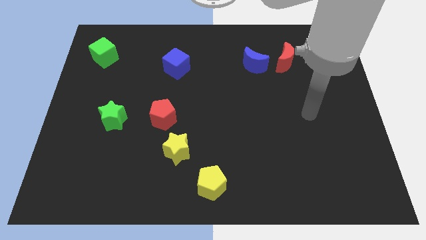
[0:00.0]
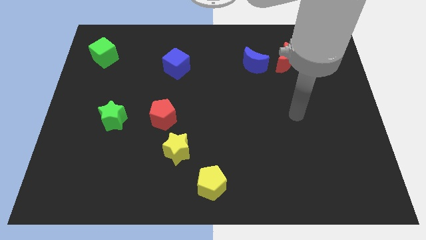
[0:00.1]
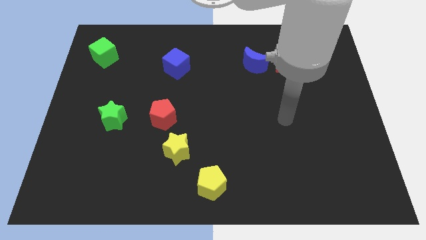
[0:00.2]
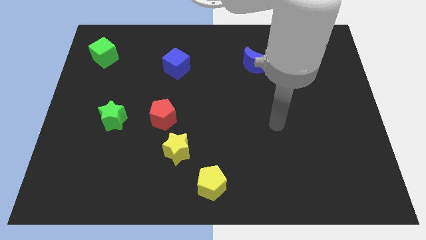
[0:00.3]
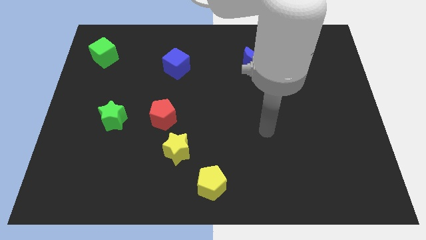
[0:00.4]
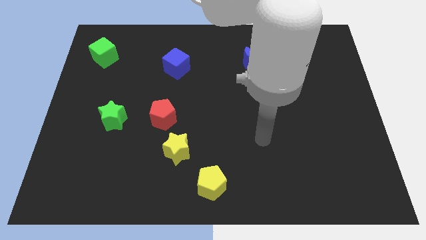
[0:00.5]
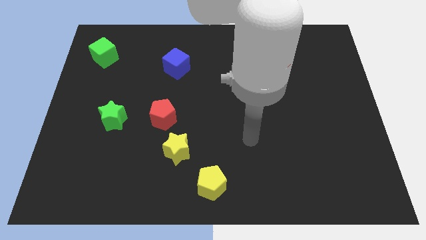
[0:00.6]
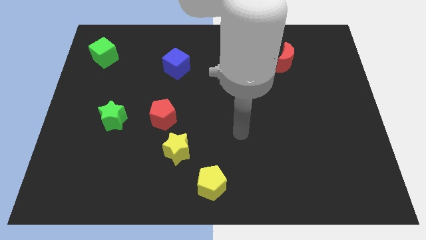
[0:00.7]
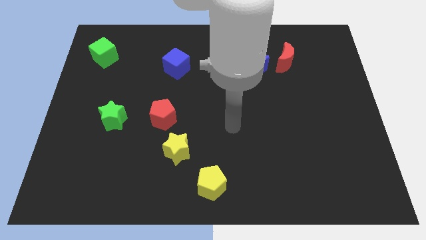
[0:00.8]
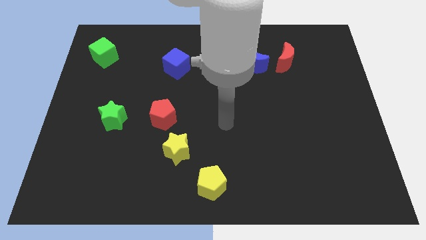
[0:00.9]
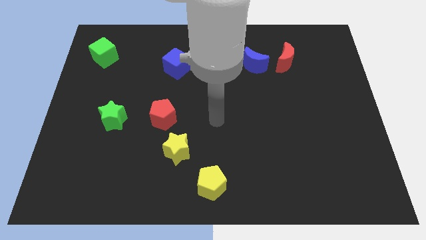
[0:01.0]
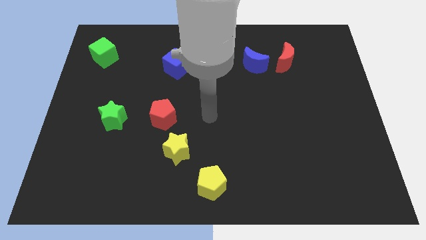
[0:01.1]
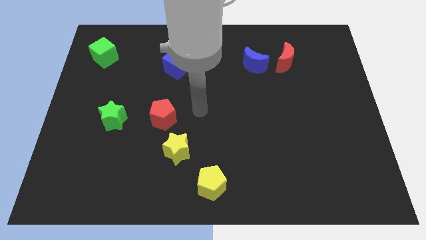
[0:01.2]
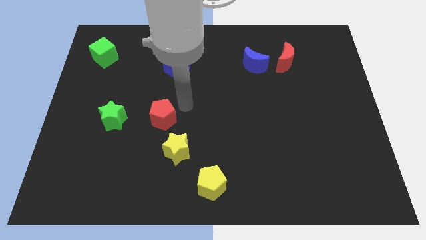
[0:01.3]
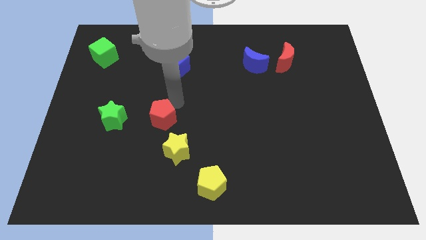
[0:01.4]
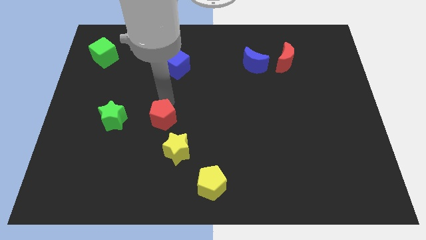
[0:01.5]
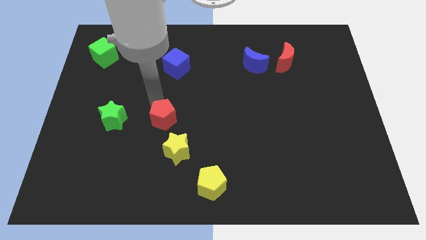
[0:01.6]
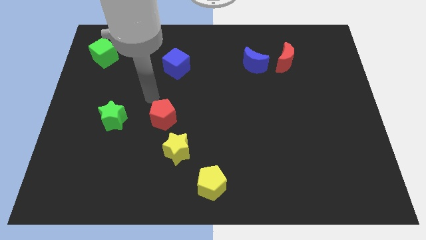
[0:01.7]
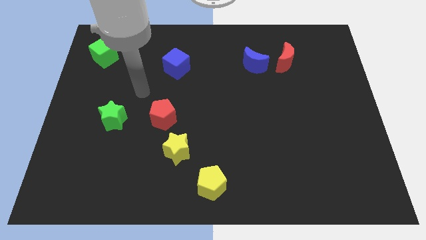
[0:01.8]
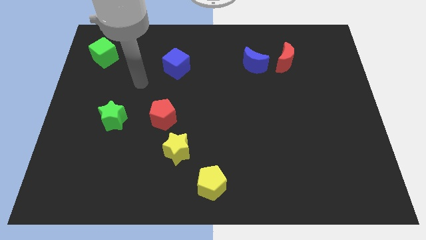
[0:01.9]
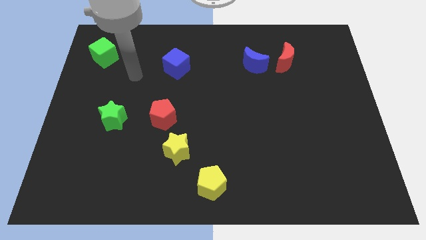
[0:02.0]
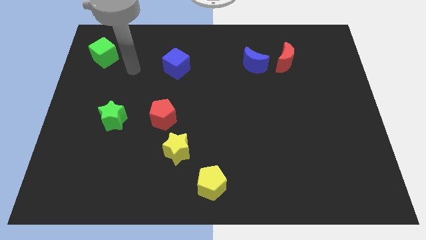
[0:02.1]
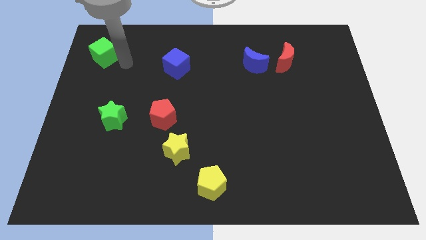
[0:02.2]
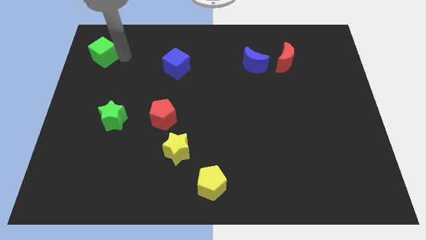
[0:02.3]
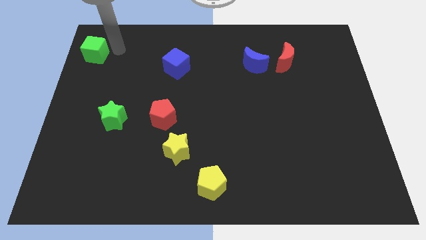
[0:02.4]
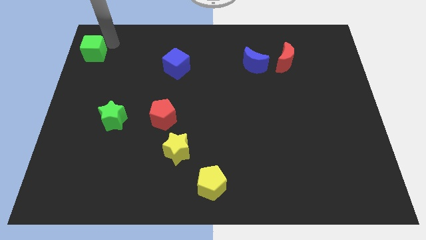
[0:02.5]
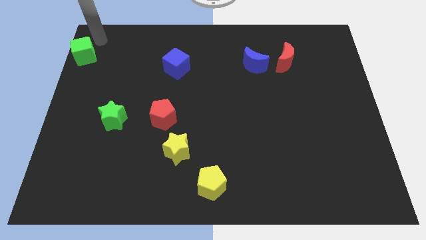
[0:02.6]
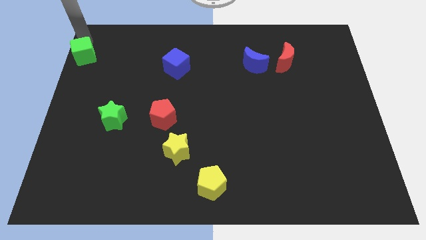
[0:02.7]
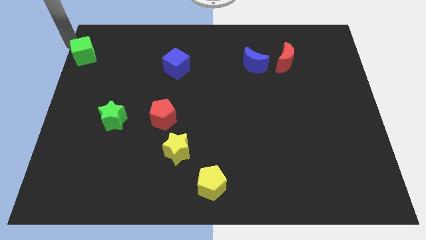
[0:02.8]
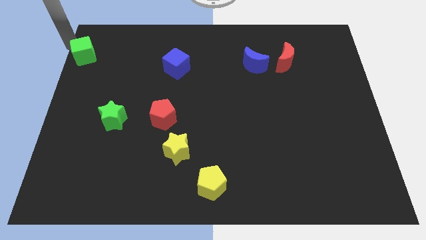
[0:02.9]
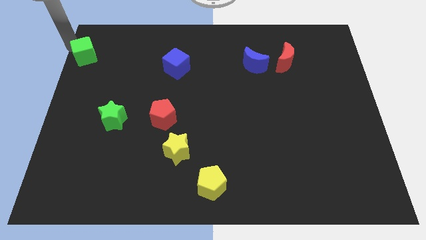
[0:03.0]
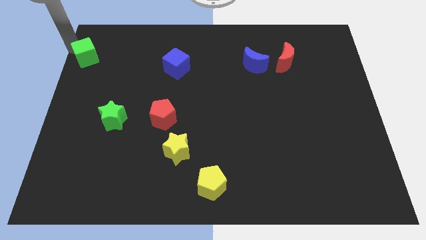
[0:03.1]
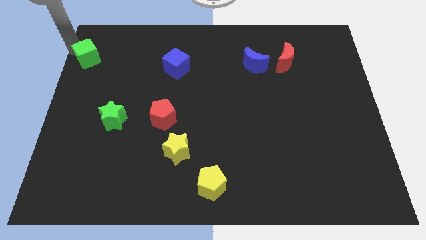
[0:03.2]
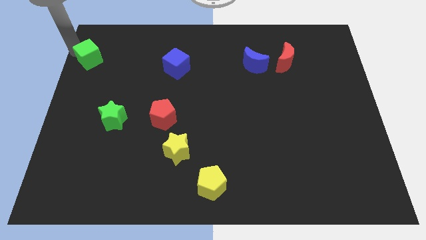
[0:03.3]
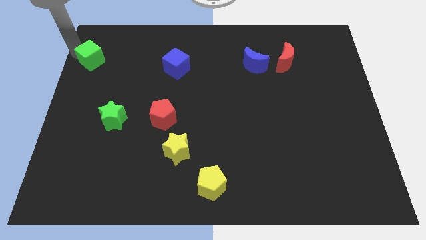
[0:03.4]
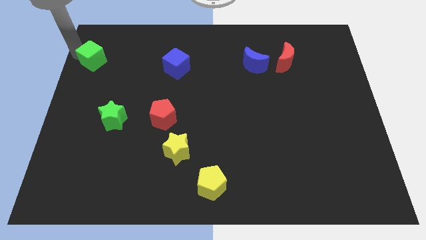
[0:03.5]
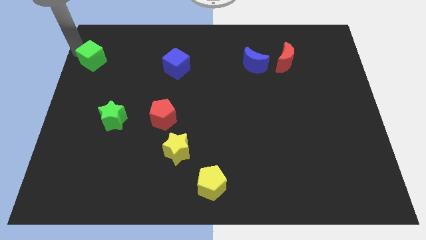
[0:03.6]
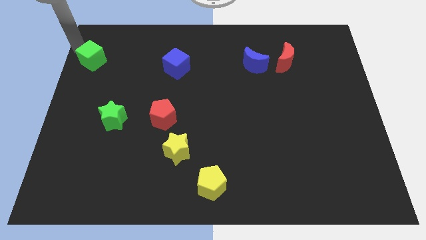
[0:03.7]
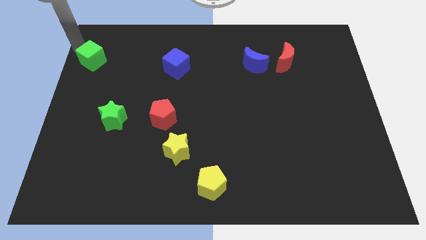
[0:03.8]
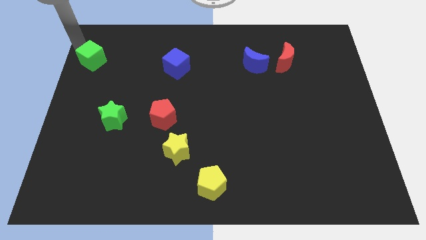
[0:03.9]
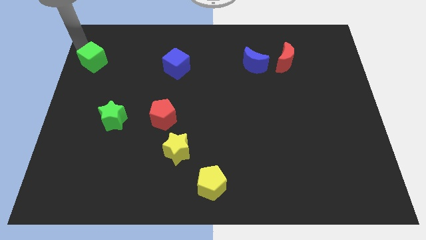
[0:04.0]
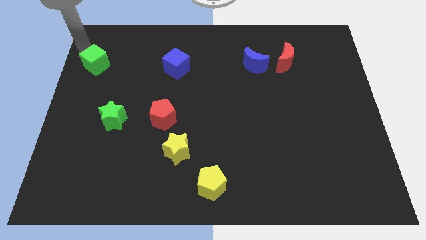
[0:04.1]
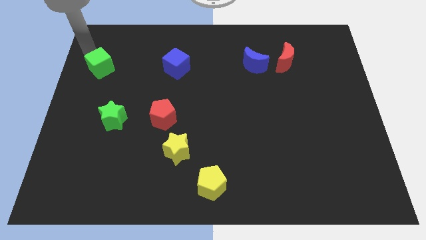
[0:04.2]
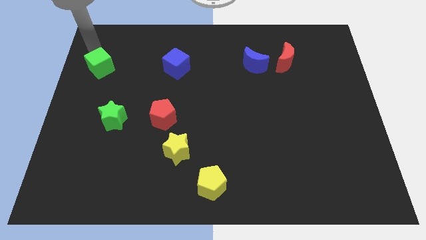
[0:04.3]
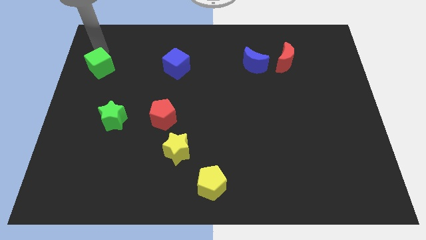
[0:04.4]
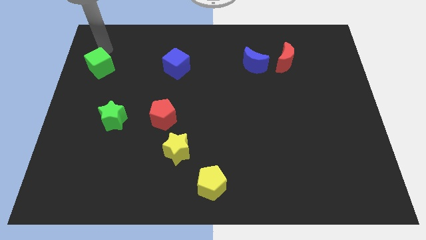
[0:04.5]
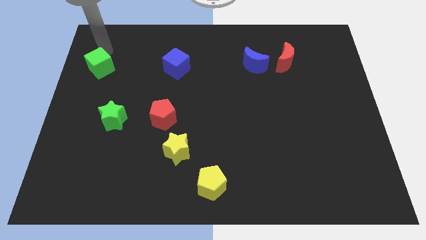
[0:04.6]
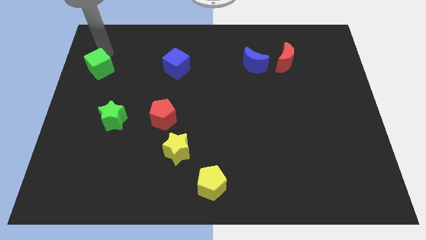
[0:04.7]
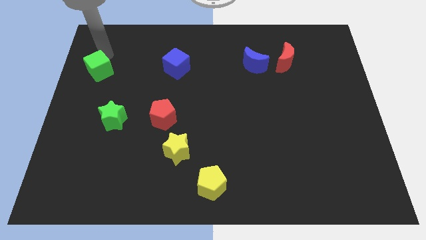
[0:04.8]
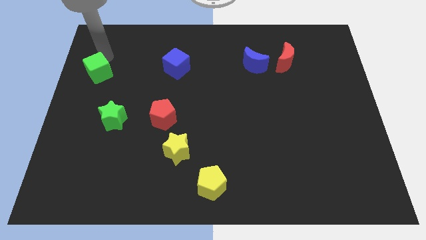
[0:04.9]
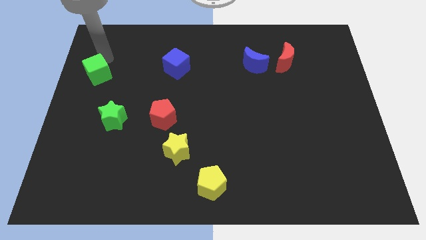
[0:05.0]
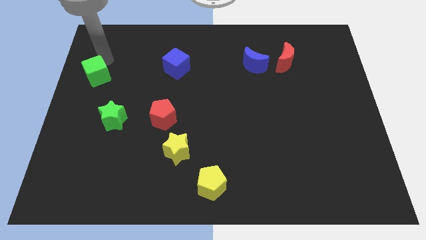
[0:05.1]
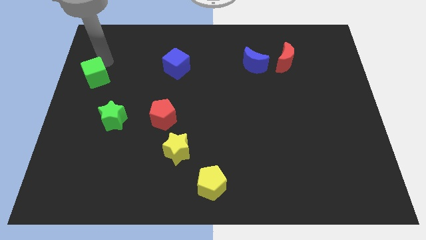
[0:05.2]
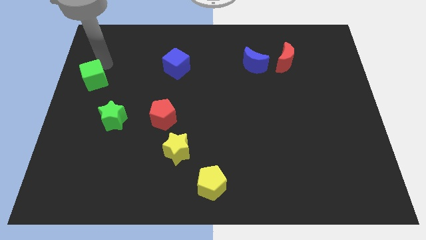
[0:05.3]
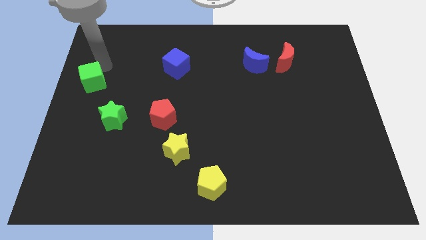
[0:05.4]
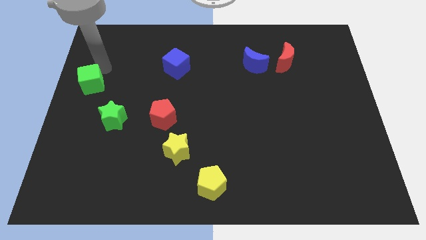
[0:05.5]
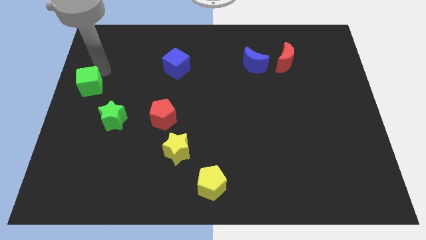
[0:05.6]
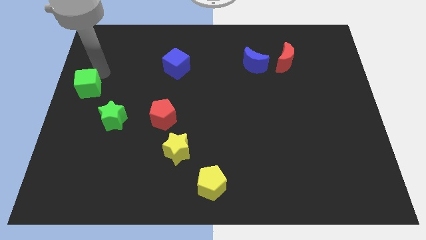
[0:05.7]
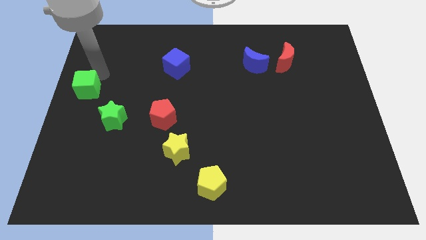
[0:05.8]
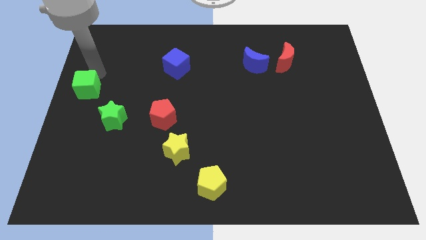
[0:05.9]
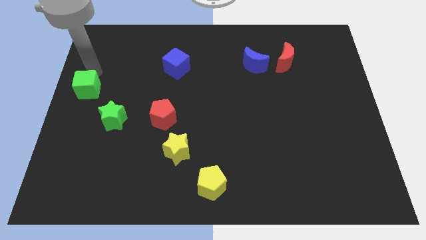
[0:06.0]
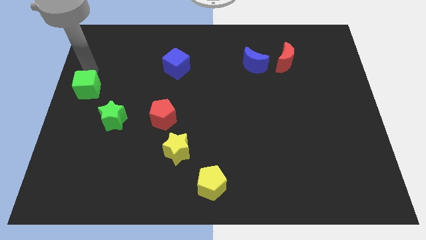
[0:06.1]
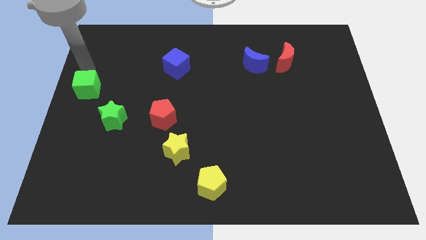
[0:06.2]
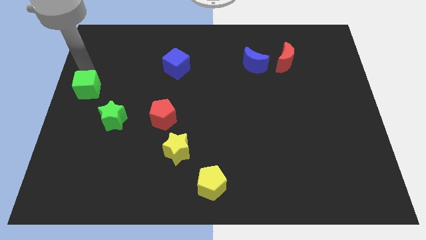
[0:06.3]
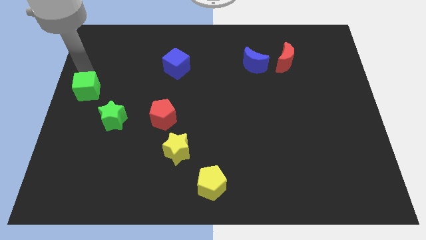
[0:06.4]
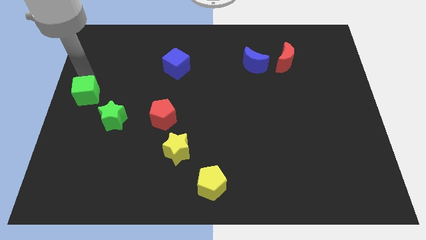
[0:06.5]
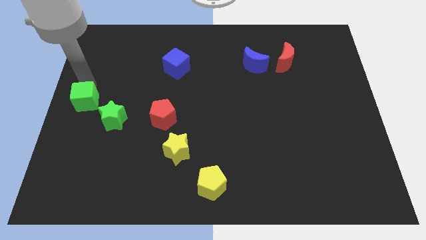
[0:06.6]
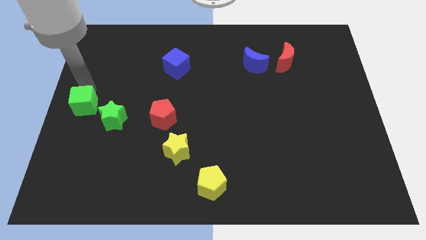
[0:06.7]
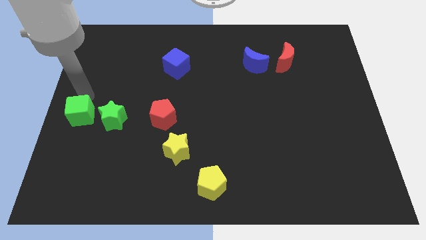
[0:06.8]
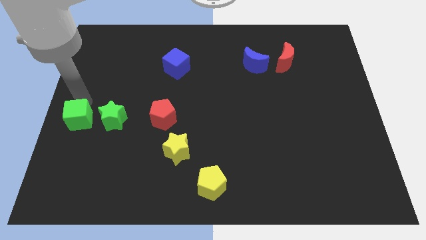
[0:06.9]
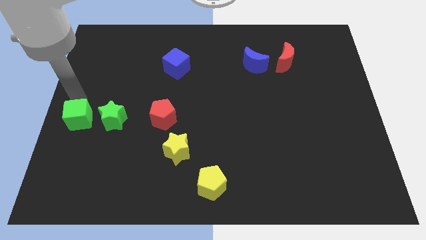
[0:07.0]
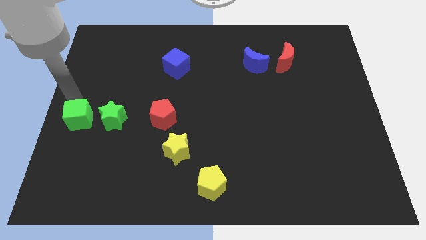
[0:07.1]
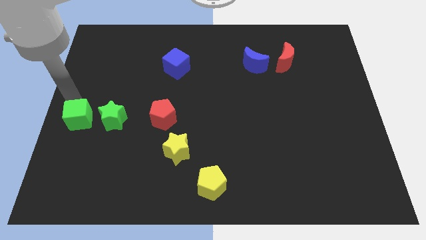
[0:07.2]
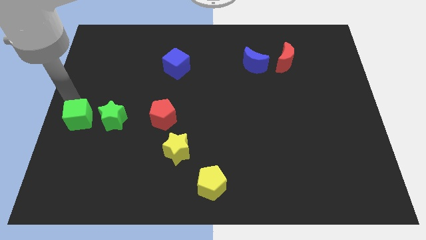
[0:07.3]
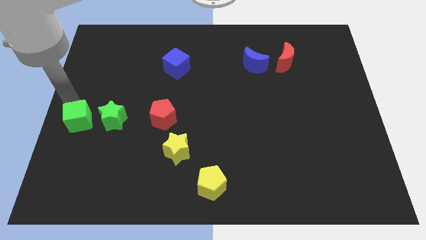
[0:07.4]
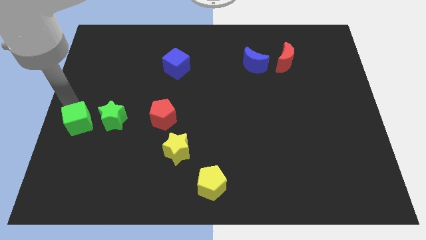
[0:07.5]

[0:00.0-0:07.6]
put the green cube to the bottom left side of the green star

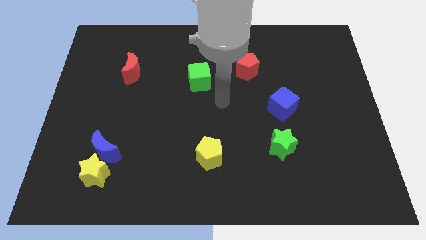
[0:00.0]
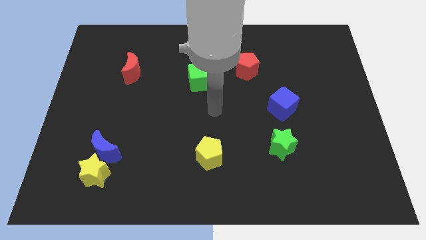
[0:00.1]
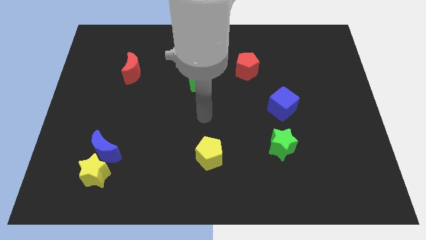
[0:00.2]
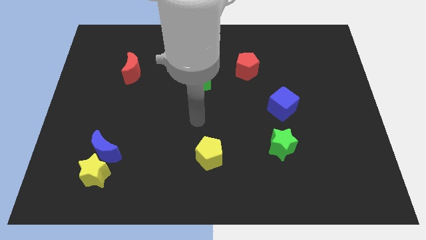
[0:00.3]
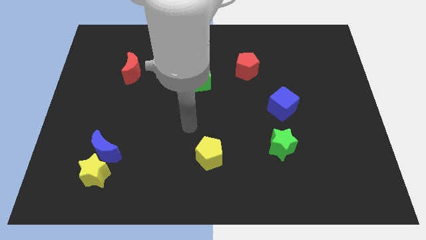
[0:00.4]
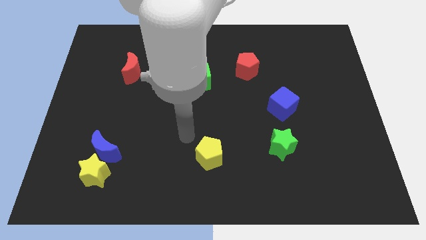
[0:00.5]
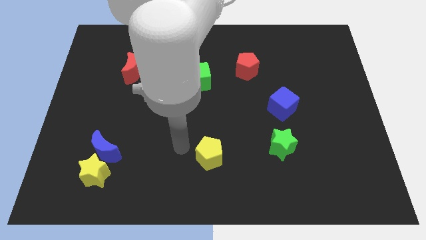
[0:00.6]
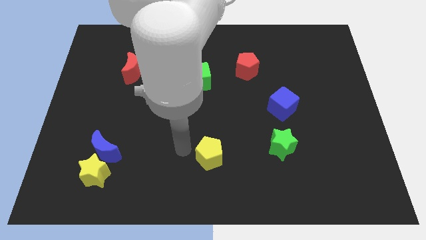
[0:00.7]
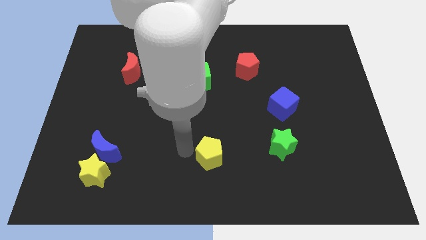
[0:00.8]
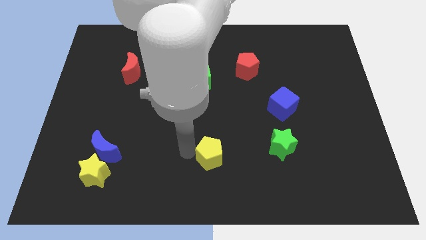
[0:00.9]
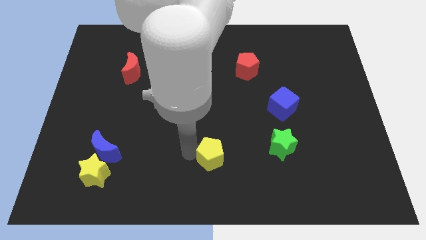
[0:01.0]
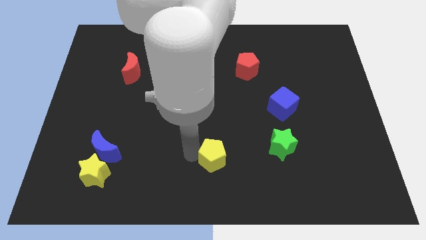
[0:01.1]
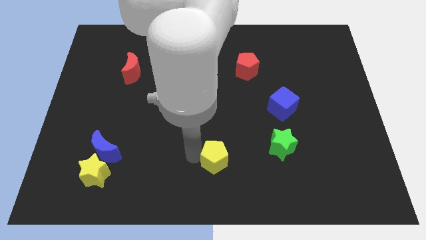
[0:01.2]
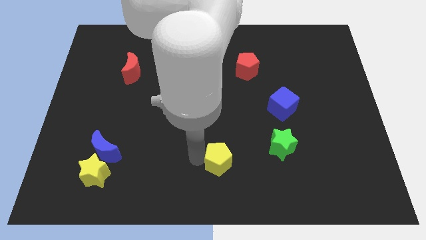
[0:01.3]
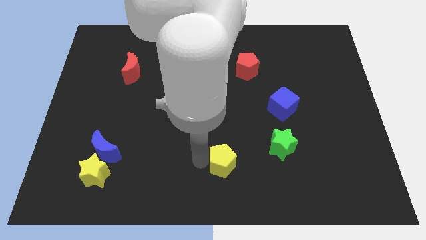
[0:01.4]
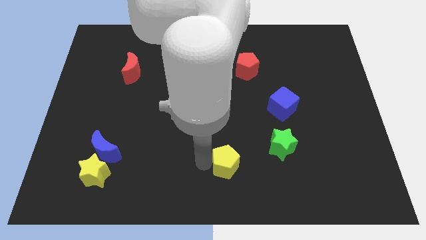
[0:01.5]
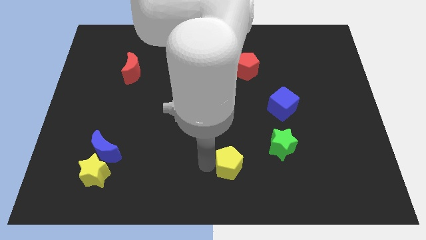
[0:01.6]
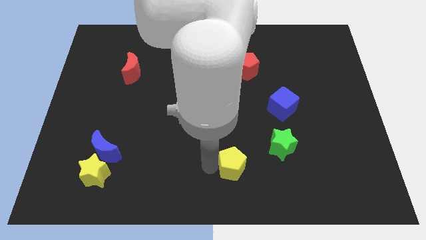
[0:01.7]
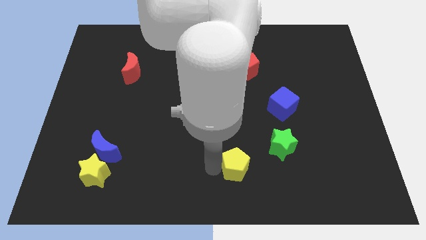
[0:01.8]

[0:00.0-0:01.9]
slide the yellow pentagon to the bottom left side of the green star
